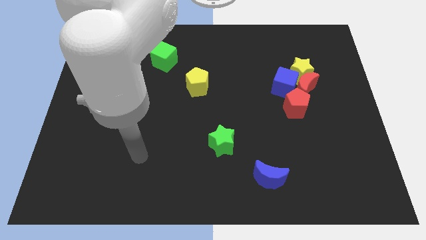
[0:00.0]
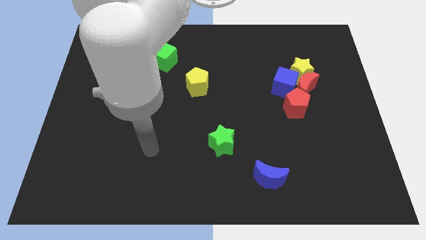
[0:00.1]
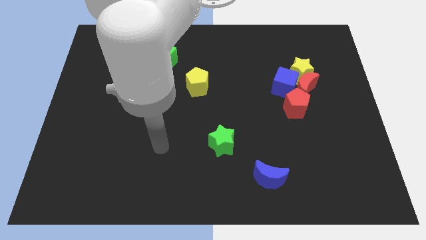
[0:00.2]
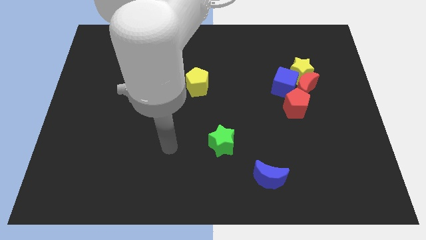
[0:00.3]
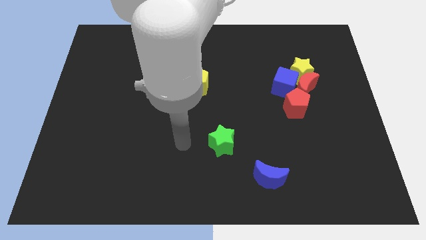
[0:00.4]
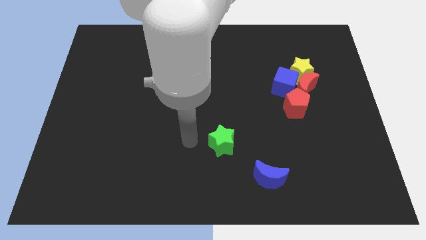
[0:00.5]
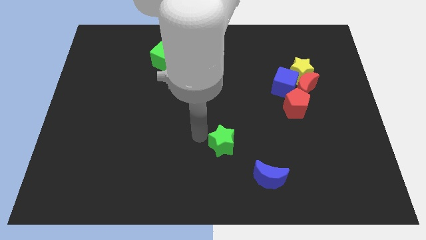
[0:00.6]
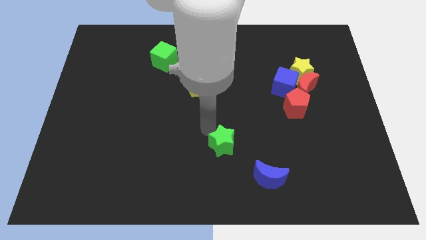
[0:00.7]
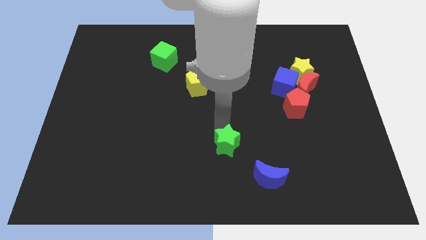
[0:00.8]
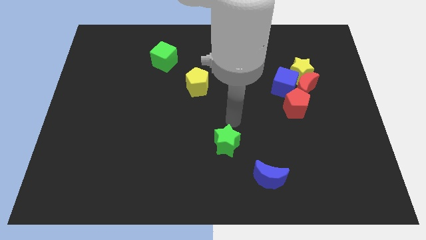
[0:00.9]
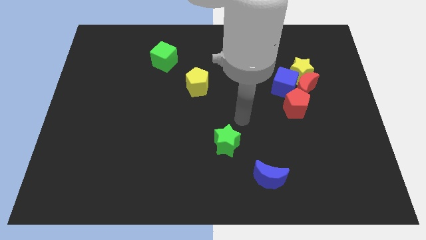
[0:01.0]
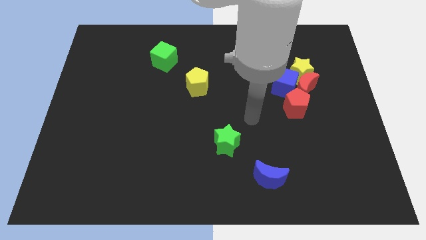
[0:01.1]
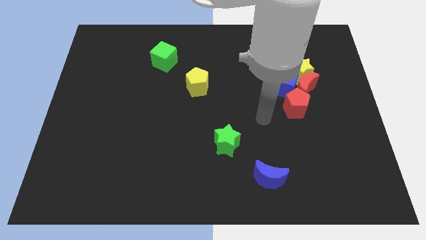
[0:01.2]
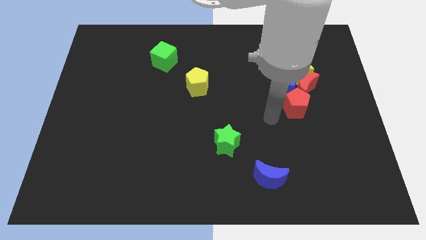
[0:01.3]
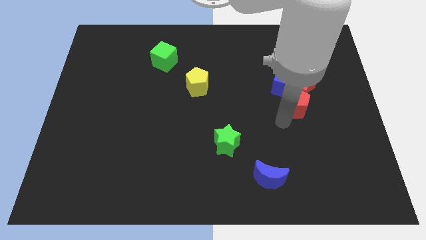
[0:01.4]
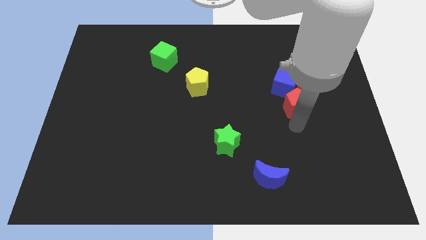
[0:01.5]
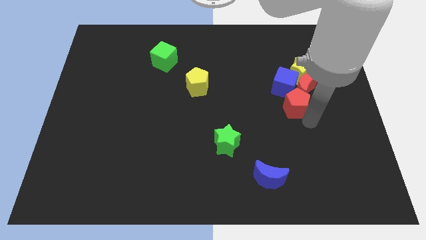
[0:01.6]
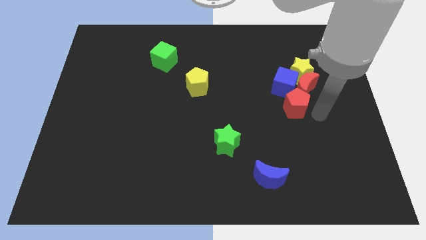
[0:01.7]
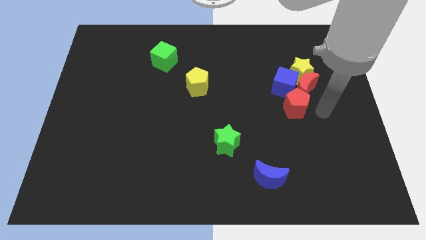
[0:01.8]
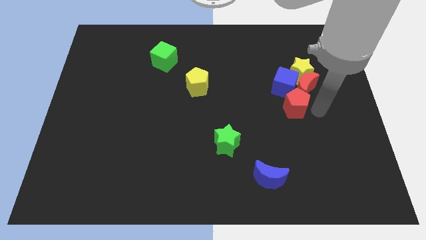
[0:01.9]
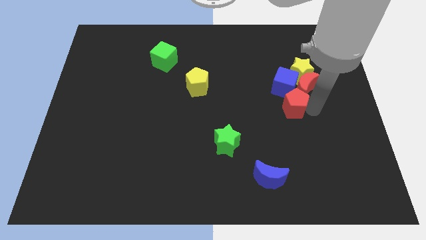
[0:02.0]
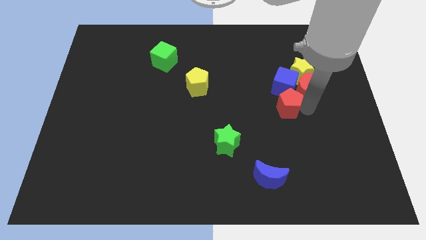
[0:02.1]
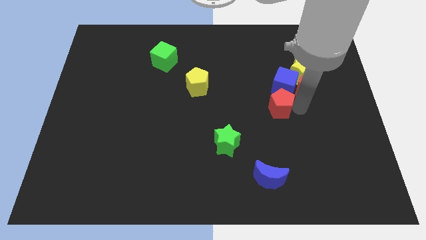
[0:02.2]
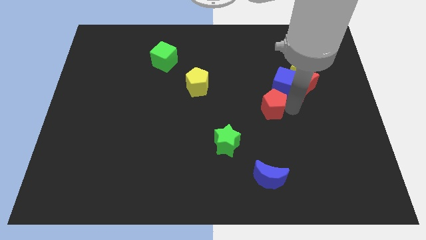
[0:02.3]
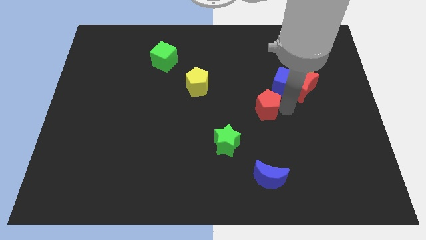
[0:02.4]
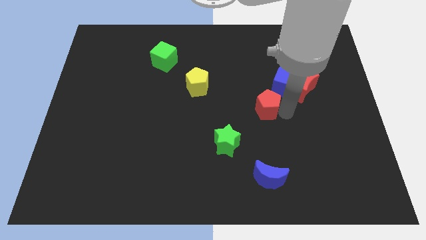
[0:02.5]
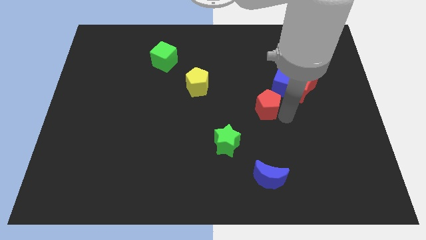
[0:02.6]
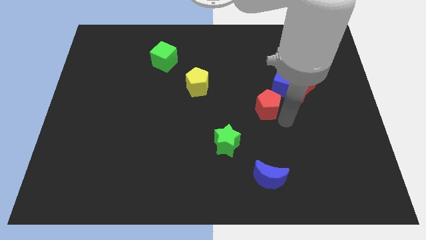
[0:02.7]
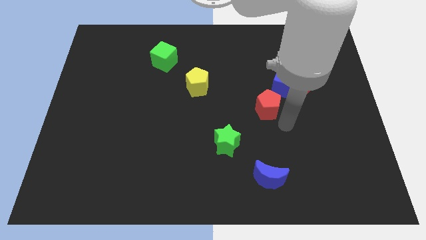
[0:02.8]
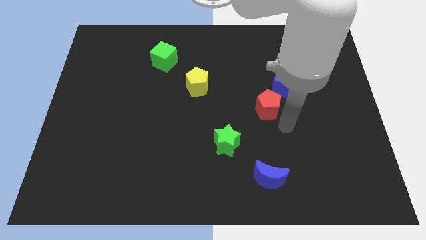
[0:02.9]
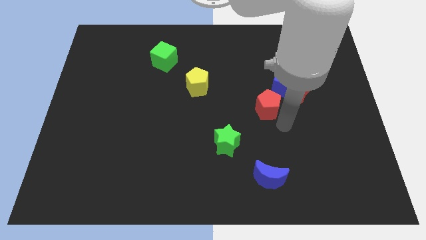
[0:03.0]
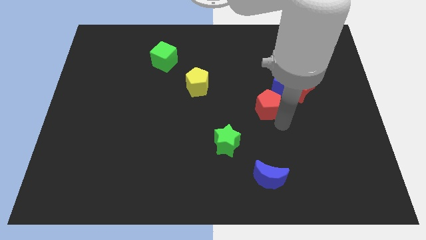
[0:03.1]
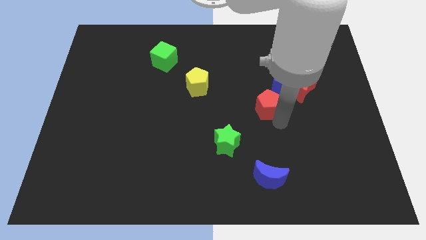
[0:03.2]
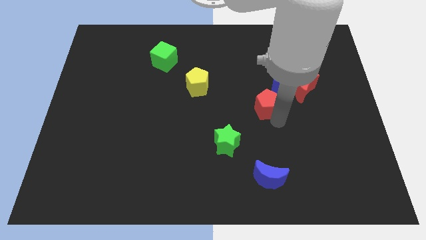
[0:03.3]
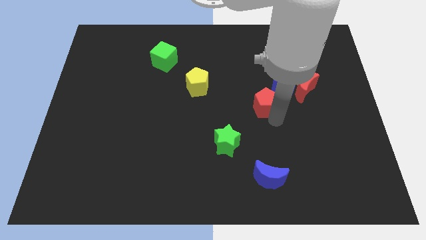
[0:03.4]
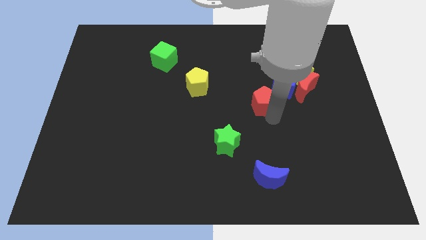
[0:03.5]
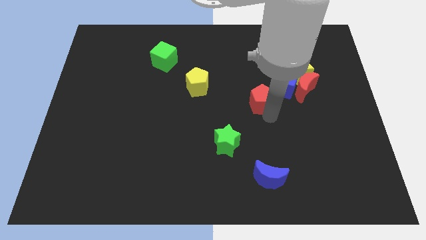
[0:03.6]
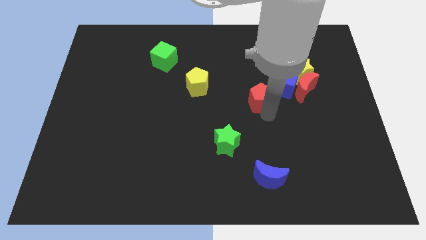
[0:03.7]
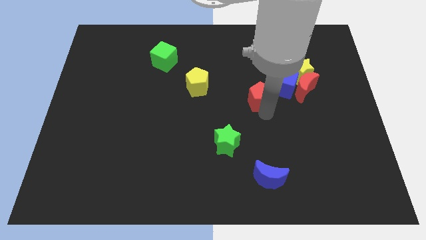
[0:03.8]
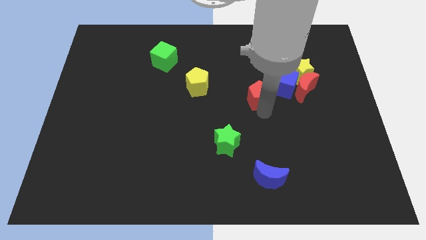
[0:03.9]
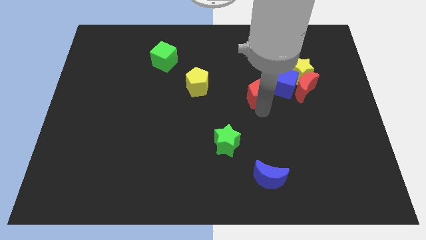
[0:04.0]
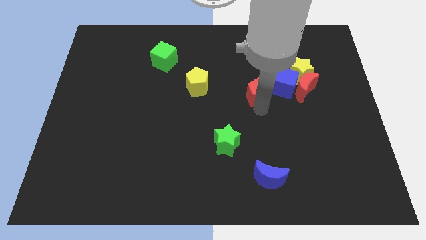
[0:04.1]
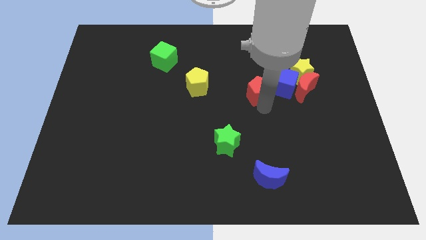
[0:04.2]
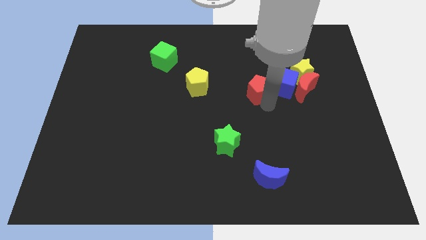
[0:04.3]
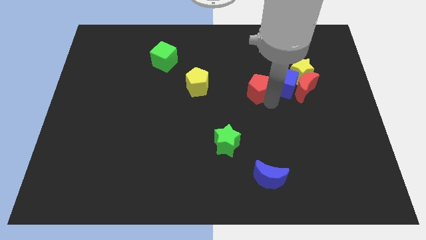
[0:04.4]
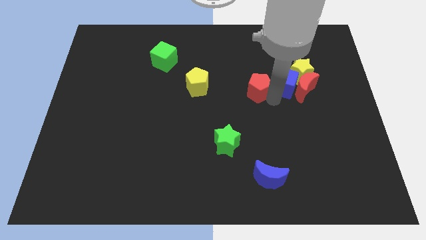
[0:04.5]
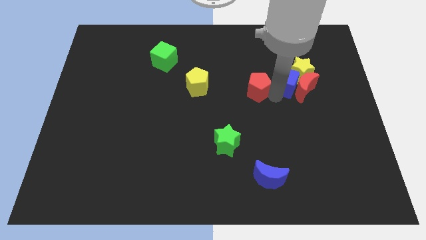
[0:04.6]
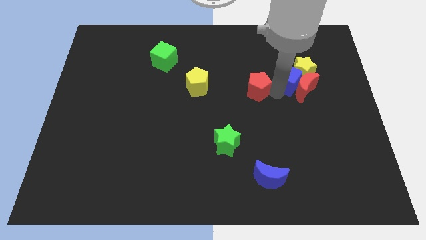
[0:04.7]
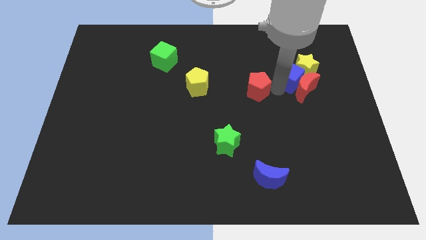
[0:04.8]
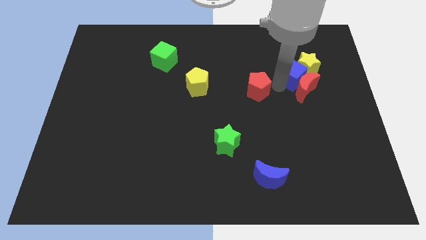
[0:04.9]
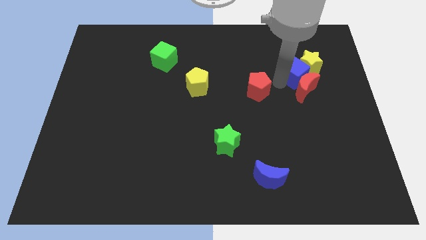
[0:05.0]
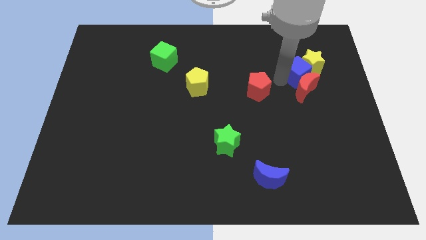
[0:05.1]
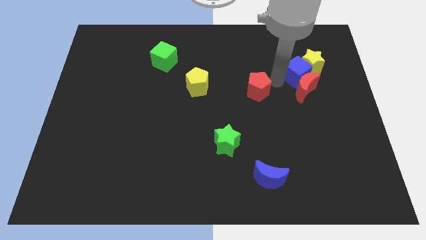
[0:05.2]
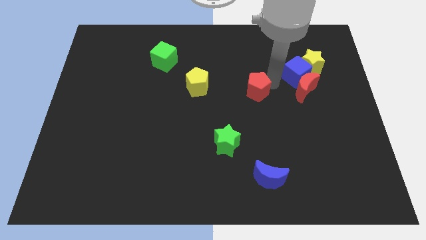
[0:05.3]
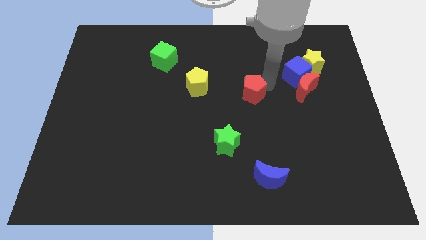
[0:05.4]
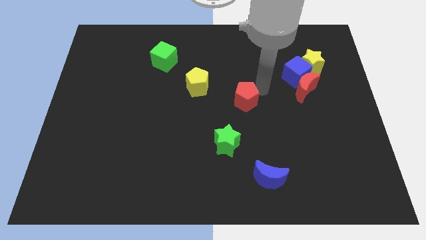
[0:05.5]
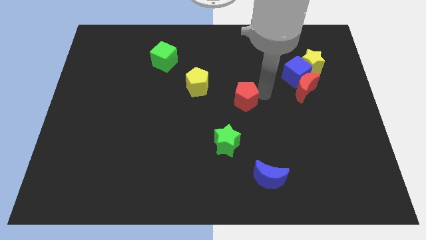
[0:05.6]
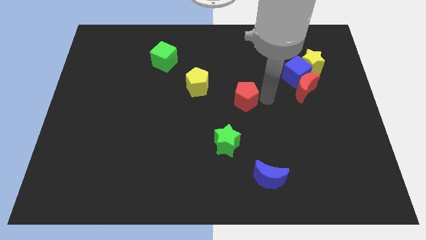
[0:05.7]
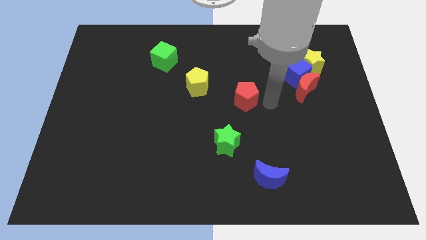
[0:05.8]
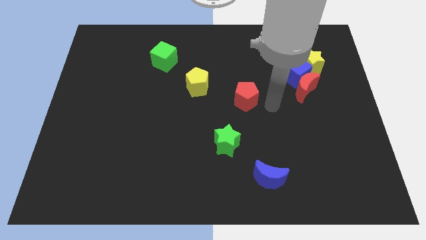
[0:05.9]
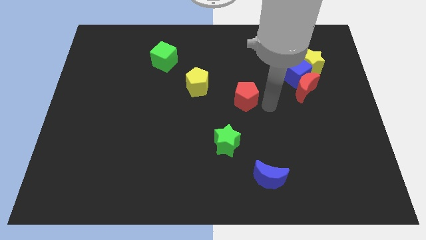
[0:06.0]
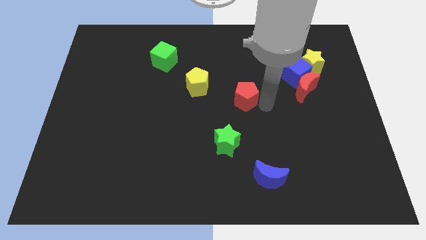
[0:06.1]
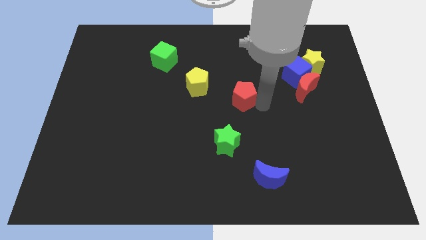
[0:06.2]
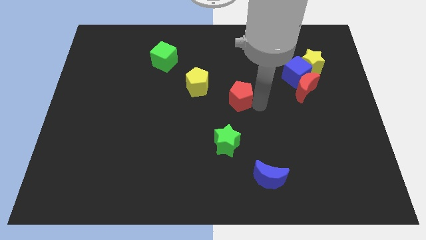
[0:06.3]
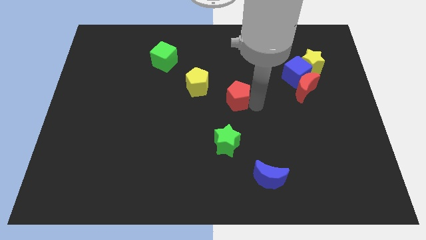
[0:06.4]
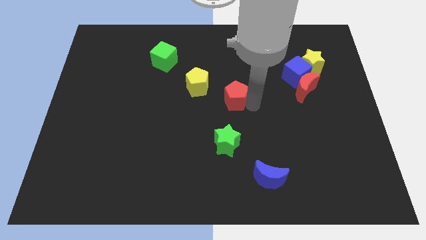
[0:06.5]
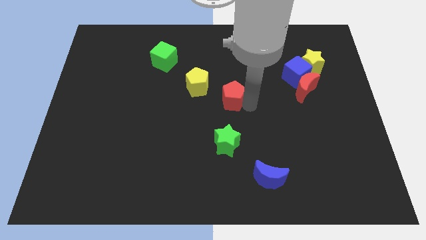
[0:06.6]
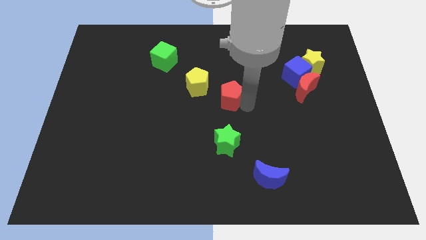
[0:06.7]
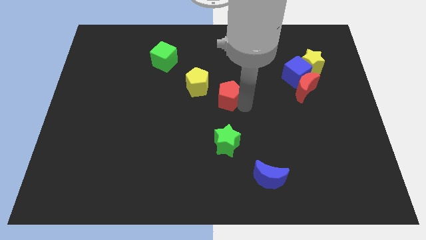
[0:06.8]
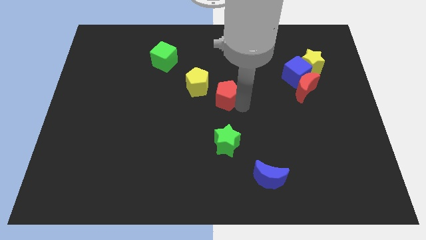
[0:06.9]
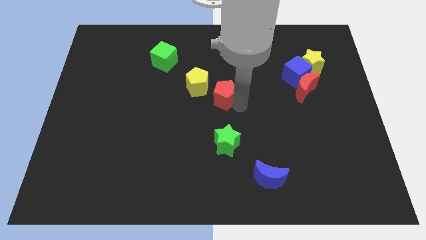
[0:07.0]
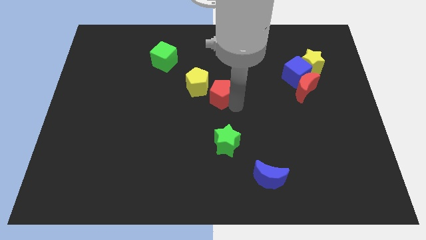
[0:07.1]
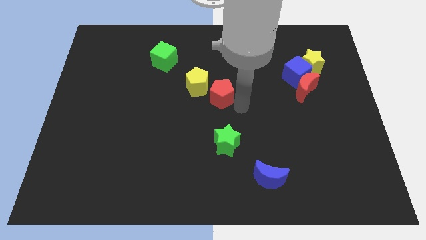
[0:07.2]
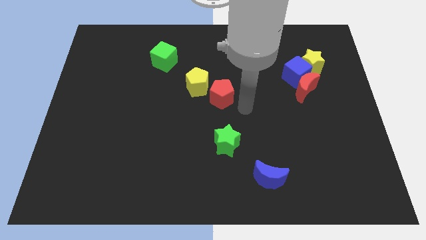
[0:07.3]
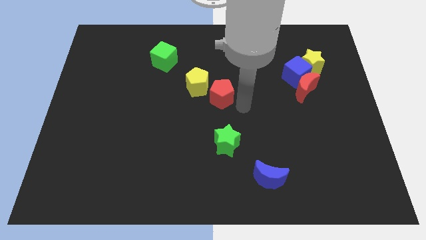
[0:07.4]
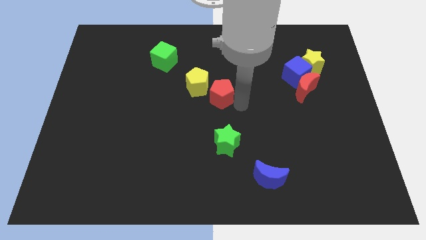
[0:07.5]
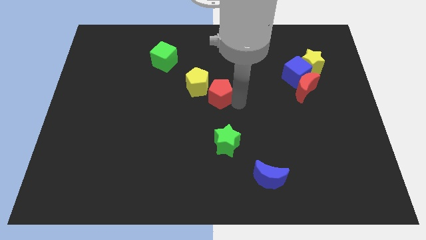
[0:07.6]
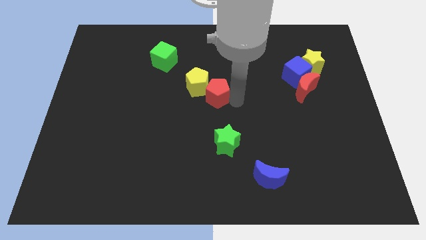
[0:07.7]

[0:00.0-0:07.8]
move the red pentagon next to the yellow pentagon
